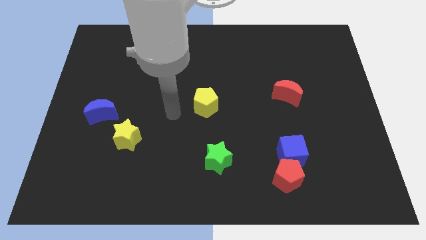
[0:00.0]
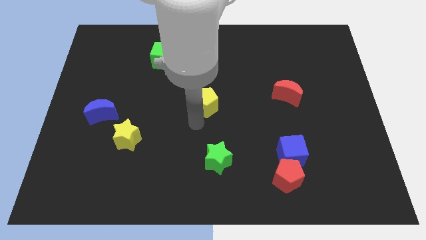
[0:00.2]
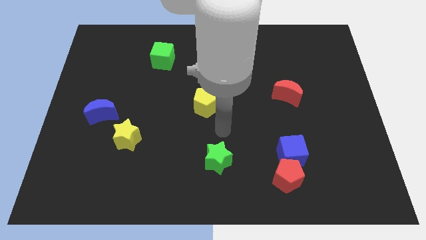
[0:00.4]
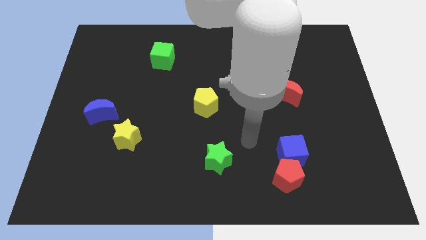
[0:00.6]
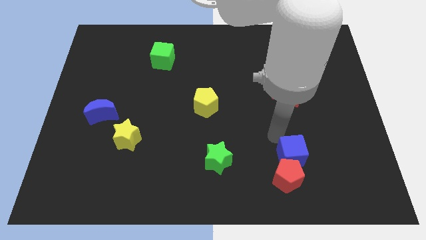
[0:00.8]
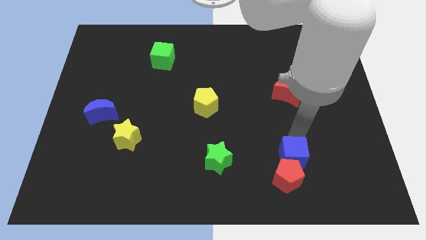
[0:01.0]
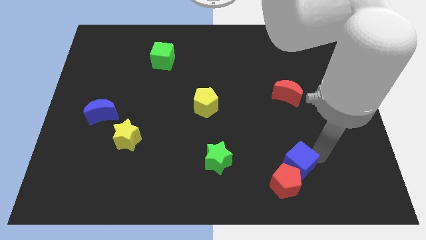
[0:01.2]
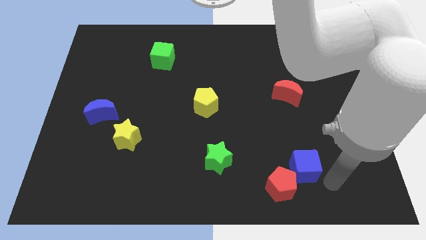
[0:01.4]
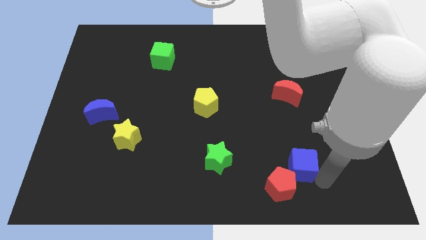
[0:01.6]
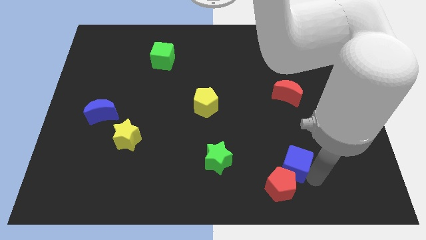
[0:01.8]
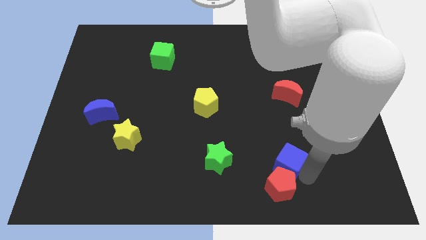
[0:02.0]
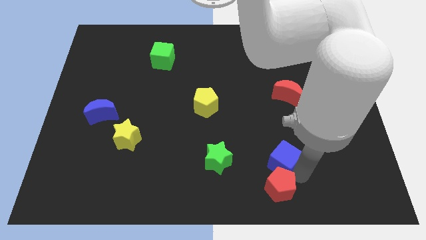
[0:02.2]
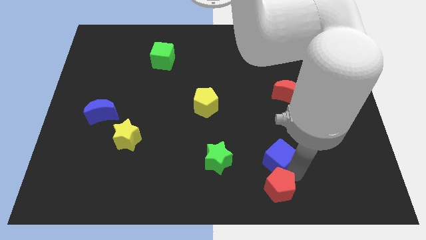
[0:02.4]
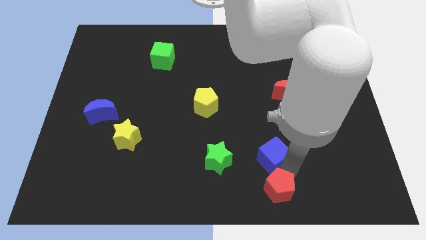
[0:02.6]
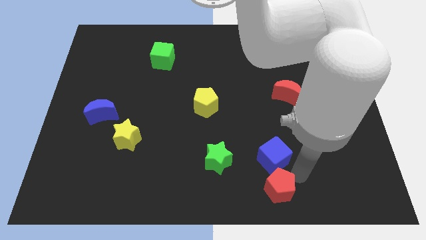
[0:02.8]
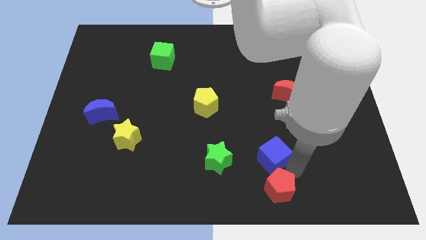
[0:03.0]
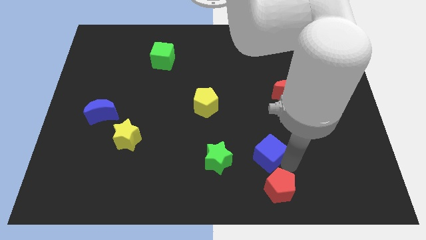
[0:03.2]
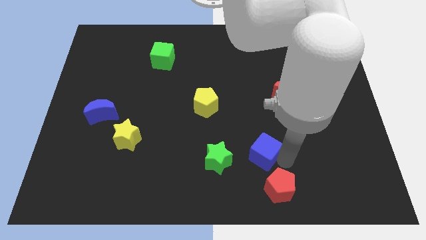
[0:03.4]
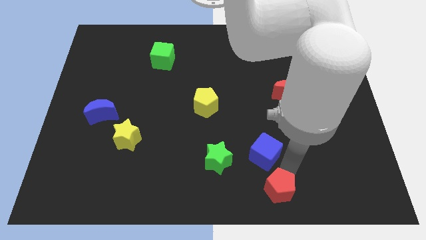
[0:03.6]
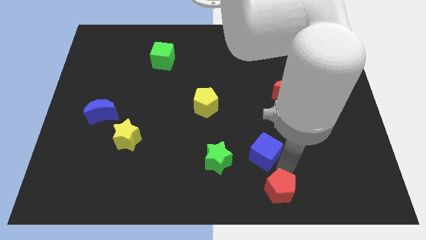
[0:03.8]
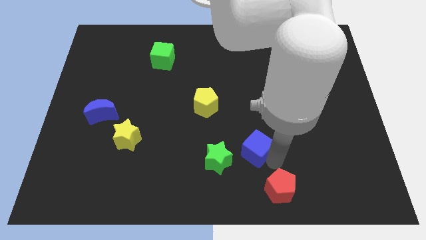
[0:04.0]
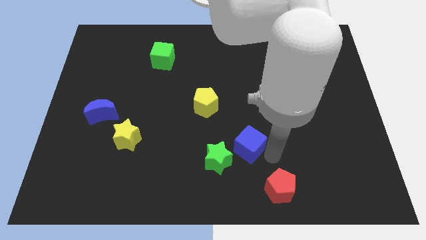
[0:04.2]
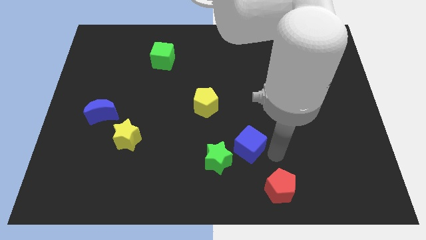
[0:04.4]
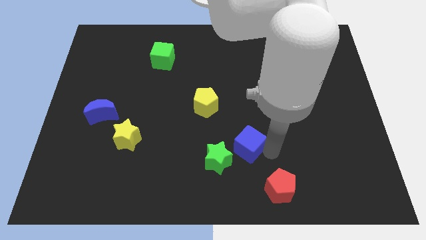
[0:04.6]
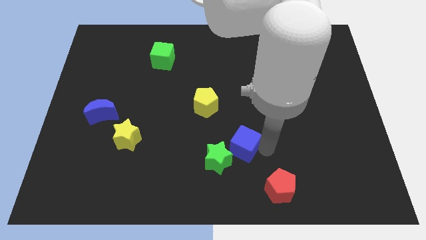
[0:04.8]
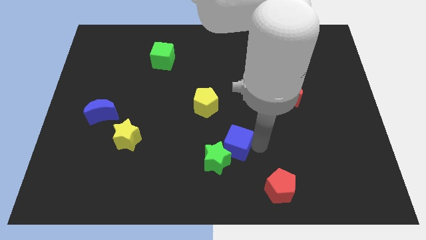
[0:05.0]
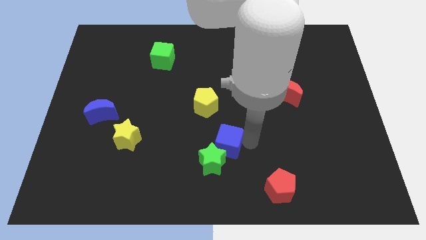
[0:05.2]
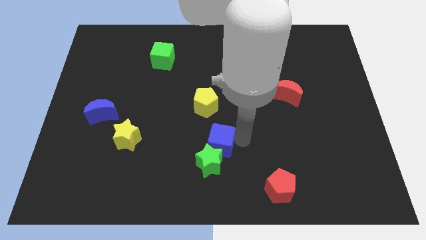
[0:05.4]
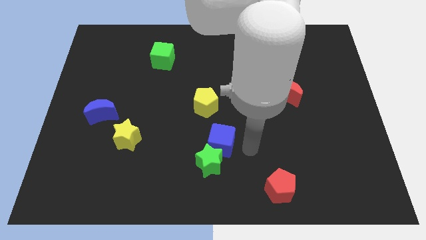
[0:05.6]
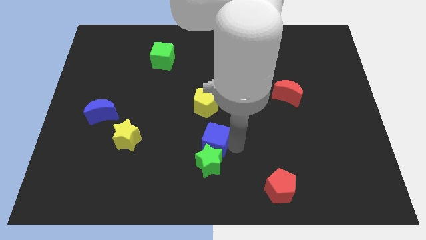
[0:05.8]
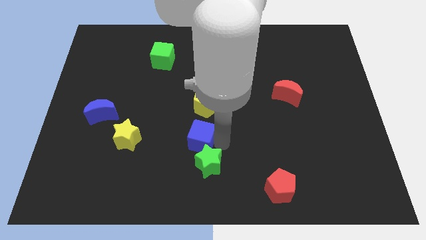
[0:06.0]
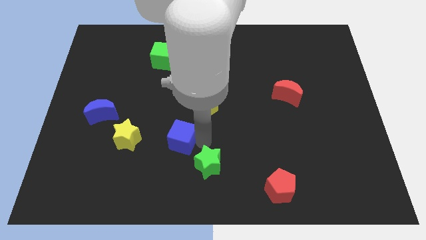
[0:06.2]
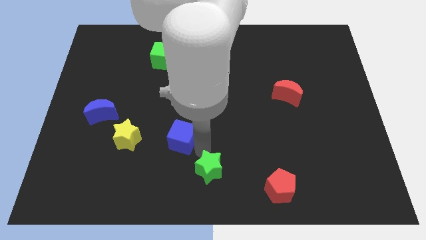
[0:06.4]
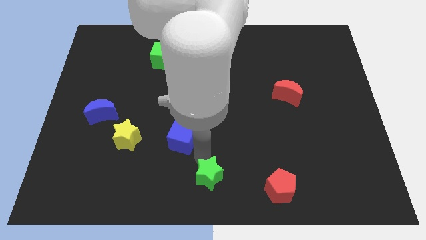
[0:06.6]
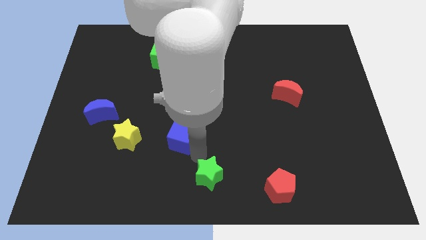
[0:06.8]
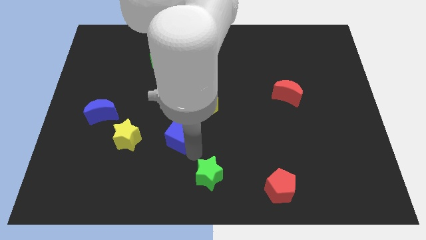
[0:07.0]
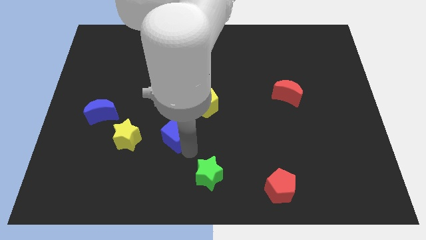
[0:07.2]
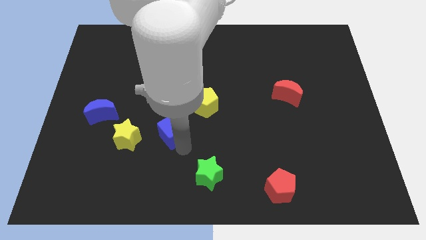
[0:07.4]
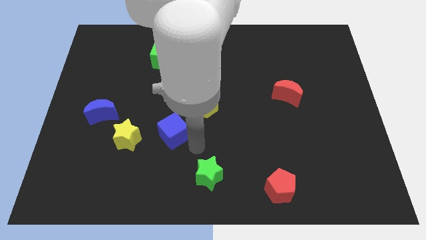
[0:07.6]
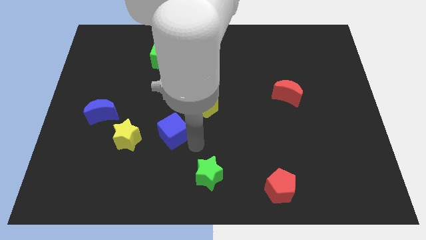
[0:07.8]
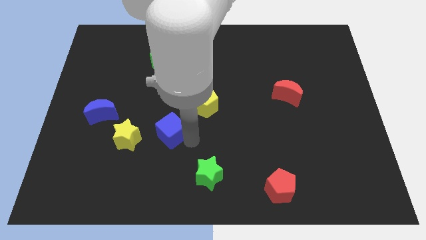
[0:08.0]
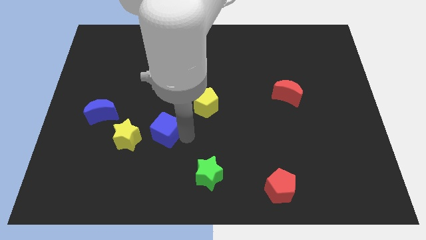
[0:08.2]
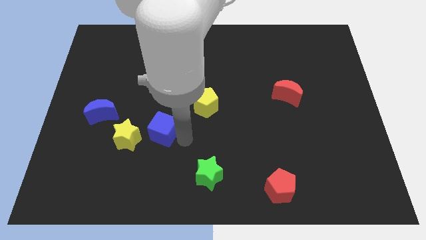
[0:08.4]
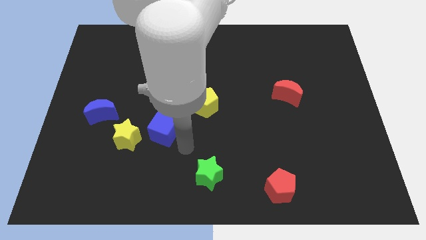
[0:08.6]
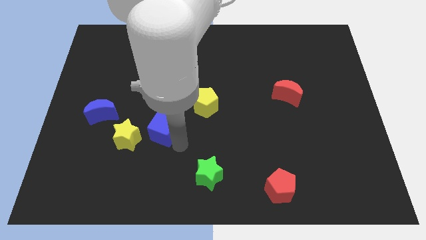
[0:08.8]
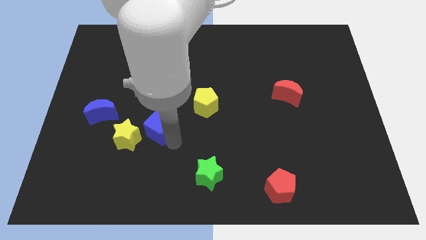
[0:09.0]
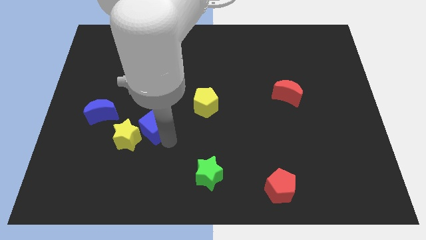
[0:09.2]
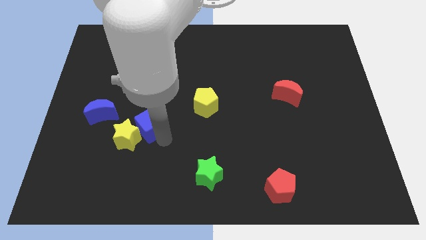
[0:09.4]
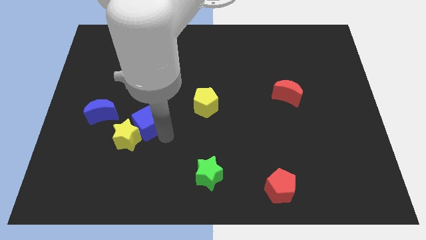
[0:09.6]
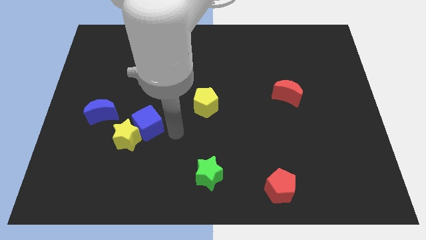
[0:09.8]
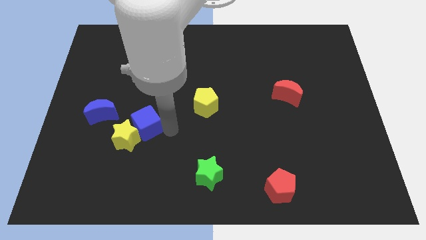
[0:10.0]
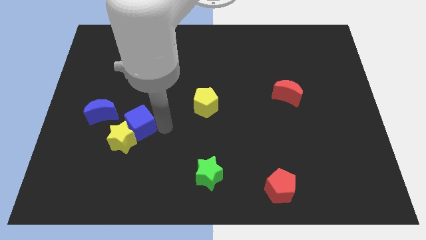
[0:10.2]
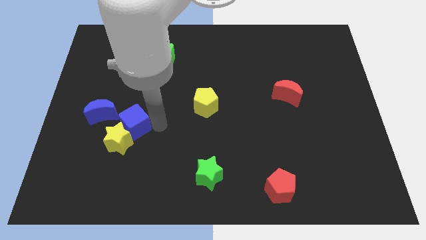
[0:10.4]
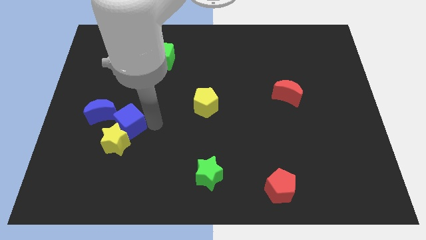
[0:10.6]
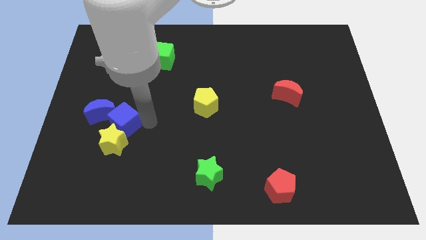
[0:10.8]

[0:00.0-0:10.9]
slide the blue cube close to the blue moon
